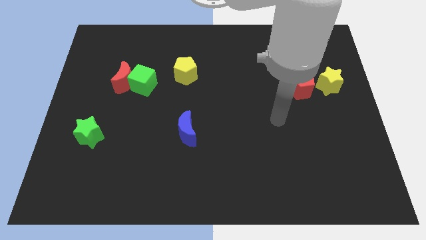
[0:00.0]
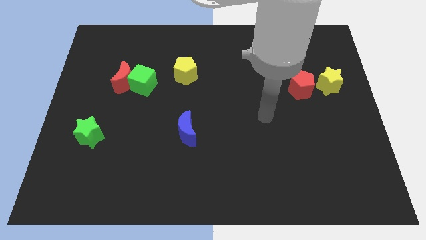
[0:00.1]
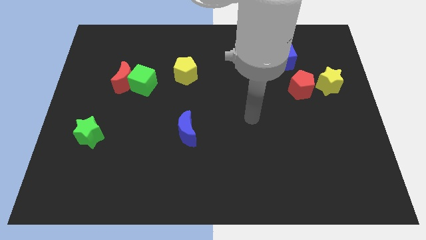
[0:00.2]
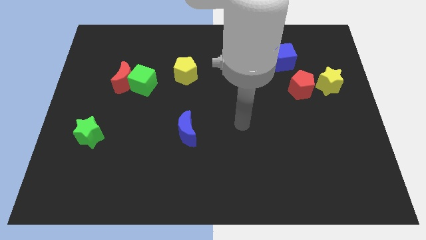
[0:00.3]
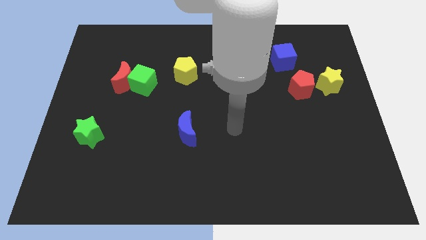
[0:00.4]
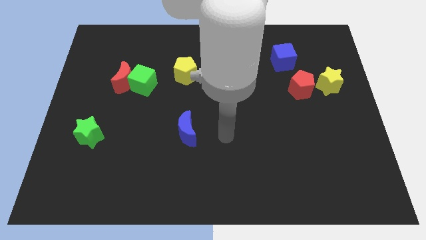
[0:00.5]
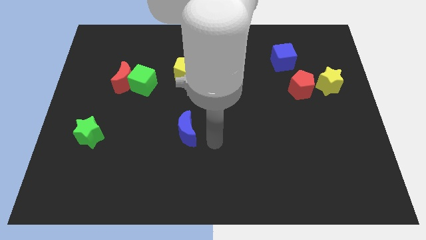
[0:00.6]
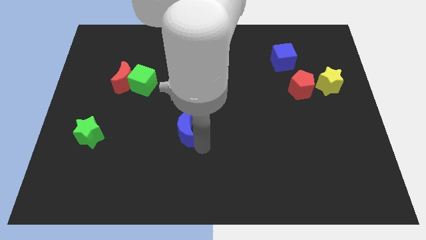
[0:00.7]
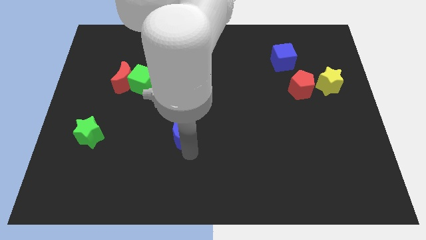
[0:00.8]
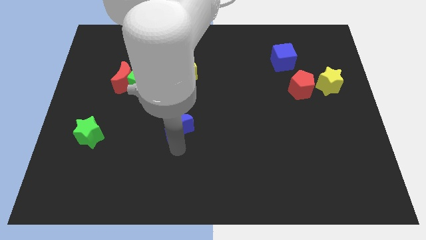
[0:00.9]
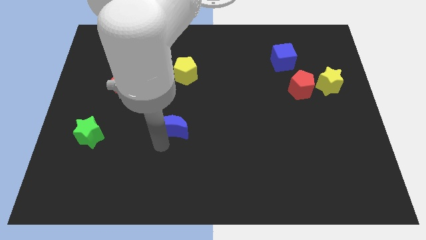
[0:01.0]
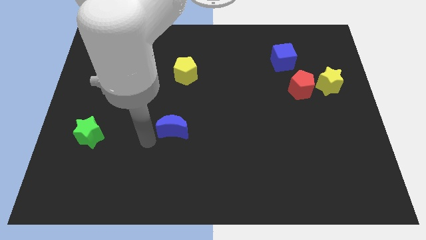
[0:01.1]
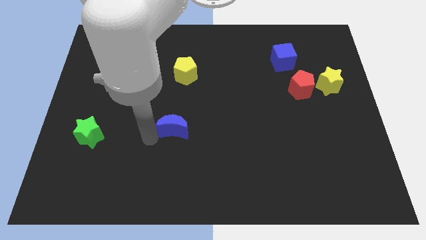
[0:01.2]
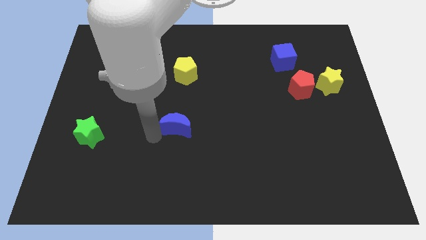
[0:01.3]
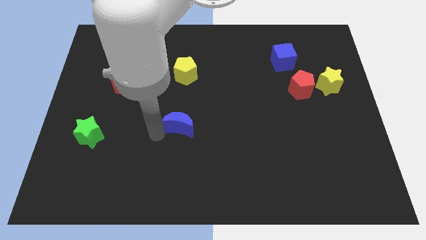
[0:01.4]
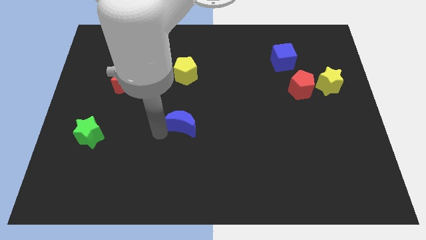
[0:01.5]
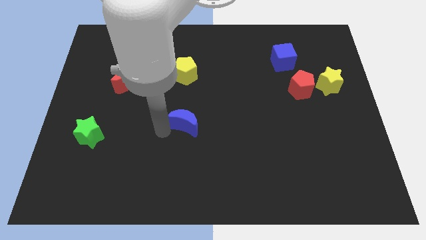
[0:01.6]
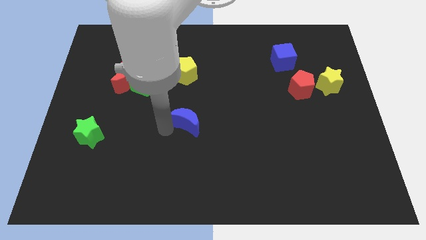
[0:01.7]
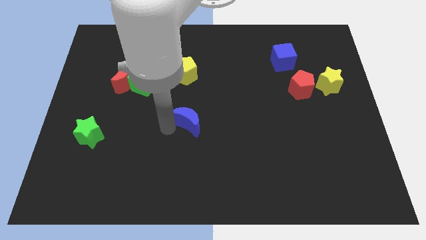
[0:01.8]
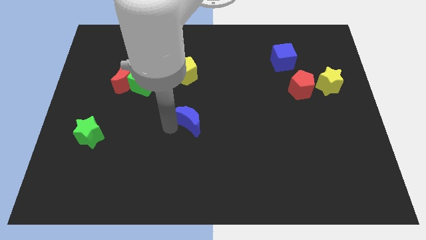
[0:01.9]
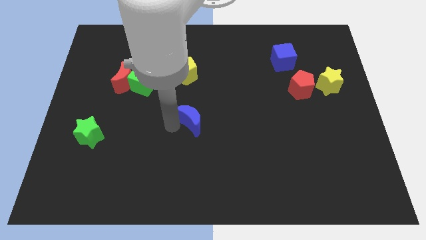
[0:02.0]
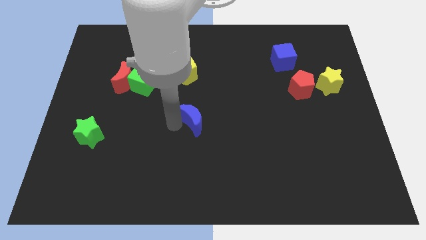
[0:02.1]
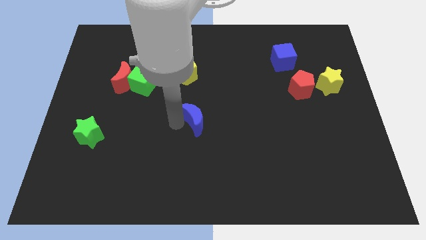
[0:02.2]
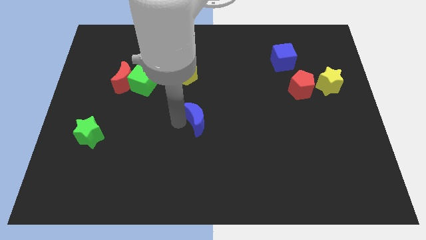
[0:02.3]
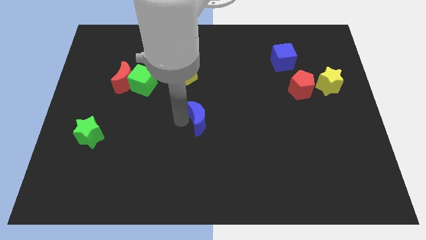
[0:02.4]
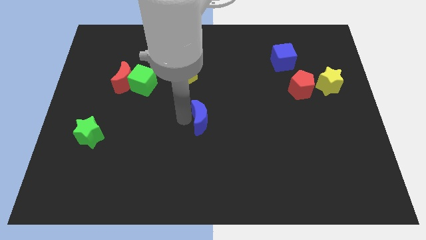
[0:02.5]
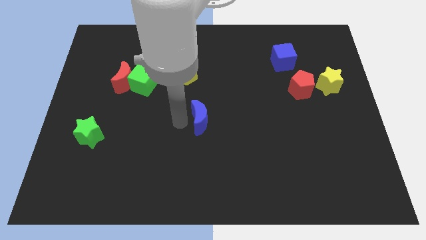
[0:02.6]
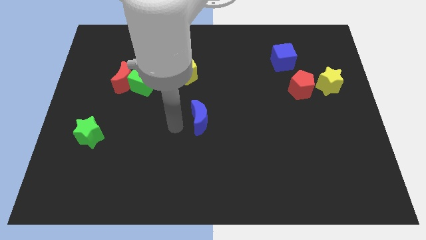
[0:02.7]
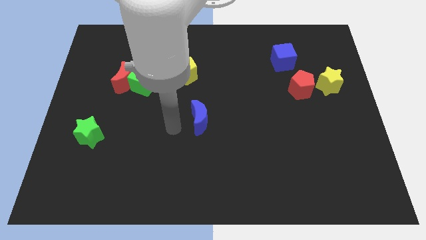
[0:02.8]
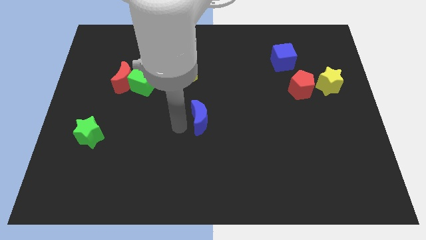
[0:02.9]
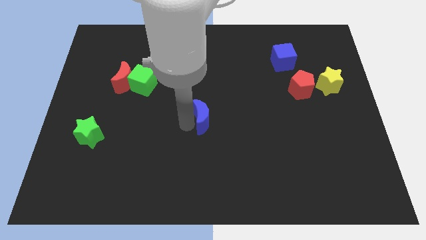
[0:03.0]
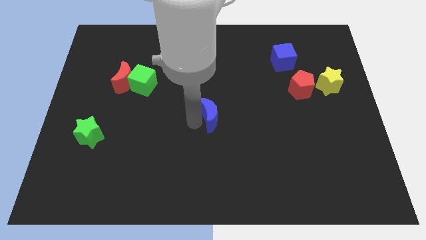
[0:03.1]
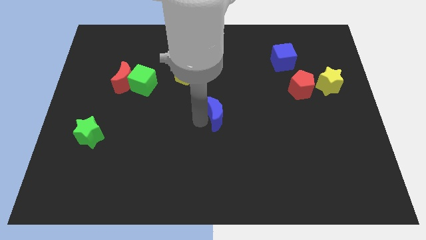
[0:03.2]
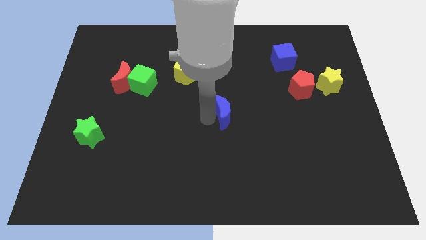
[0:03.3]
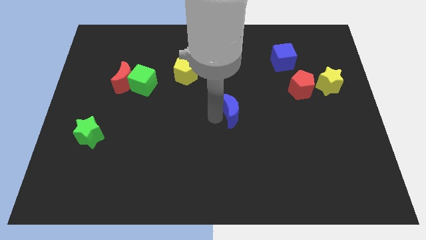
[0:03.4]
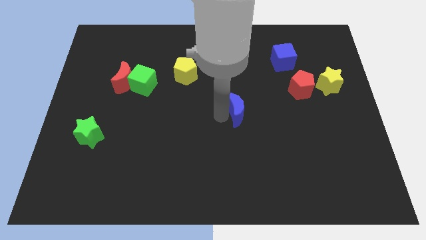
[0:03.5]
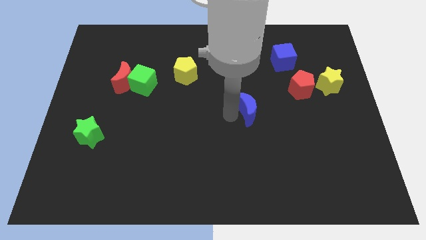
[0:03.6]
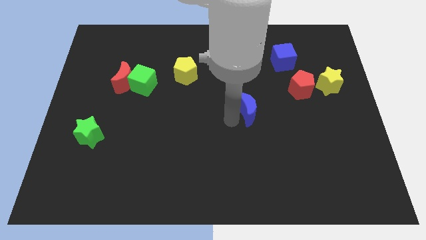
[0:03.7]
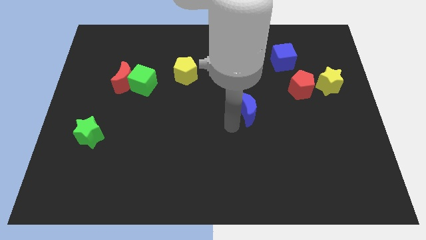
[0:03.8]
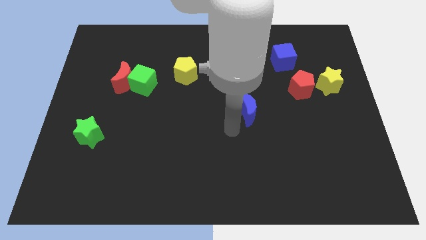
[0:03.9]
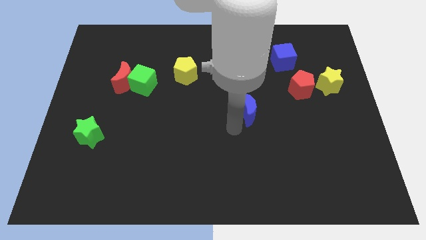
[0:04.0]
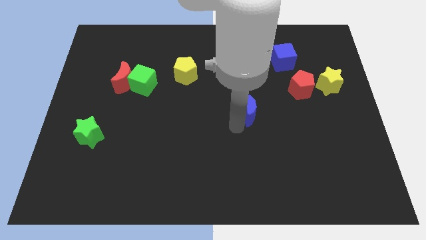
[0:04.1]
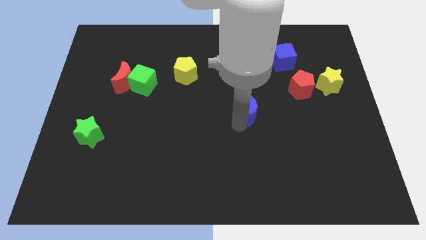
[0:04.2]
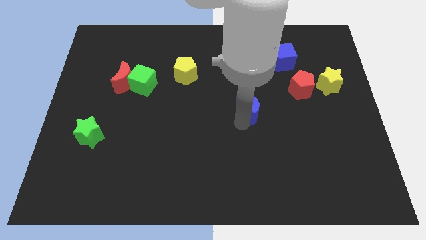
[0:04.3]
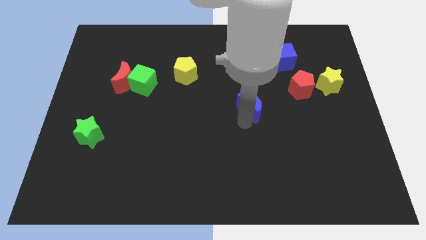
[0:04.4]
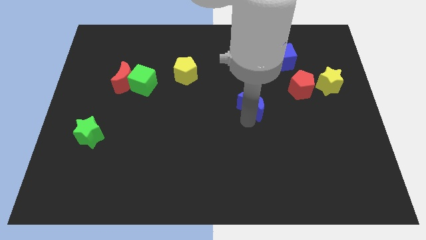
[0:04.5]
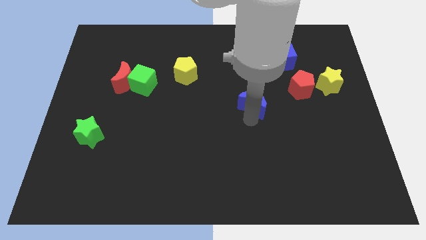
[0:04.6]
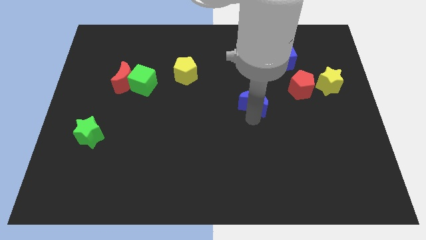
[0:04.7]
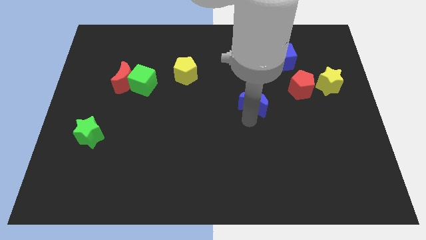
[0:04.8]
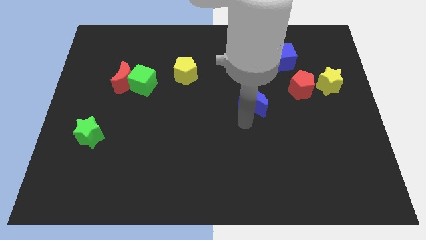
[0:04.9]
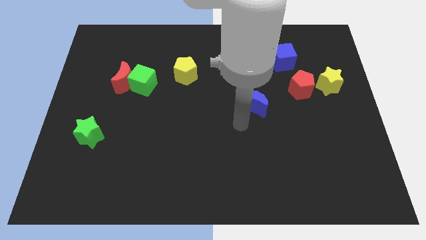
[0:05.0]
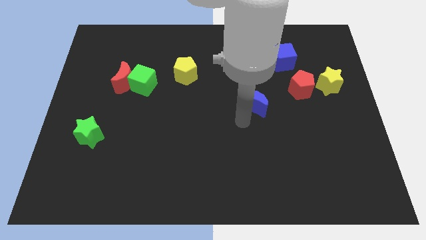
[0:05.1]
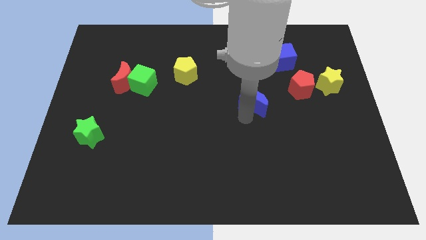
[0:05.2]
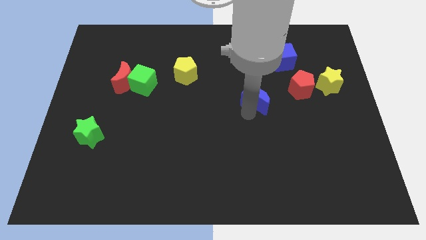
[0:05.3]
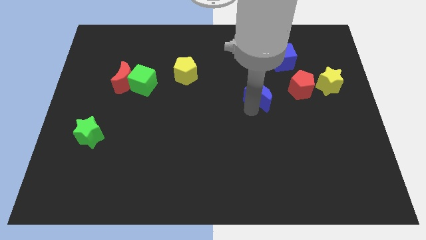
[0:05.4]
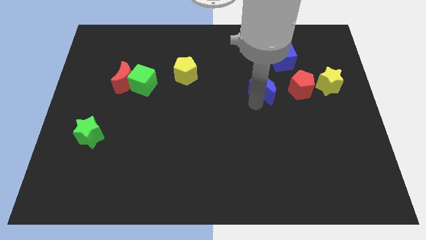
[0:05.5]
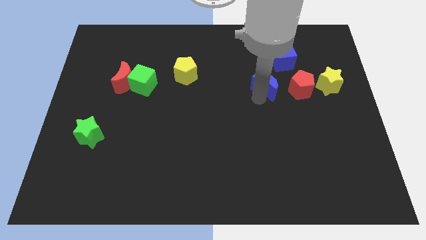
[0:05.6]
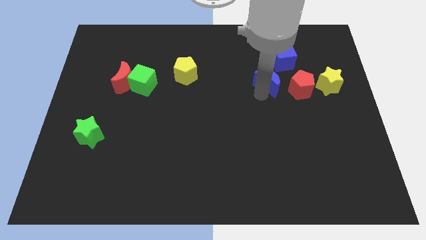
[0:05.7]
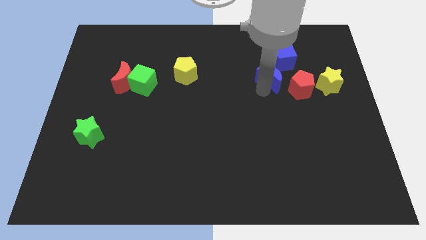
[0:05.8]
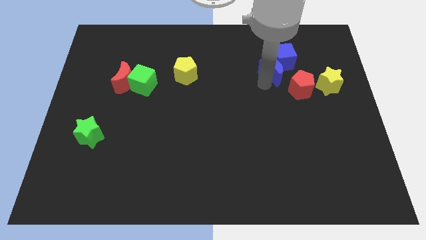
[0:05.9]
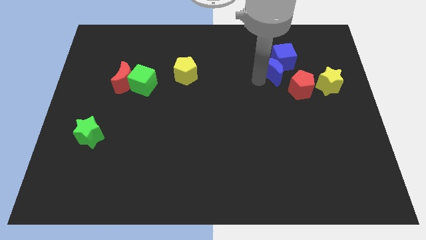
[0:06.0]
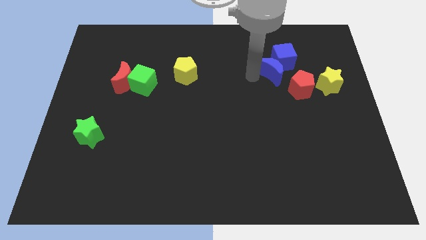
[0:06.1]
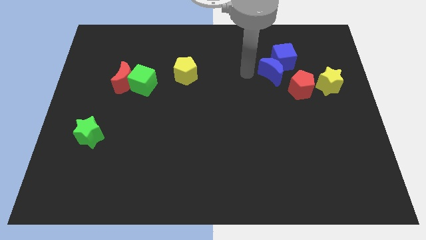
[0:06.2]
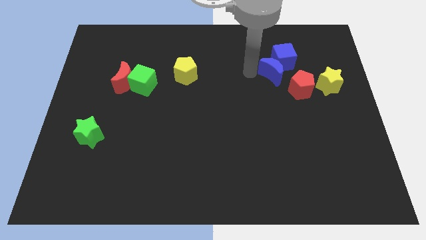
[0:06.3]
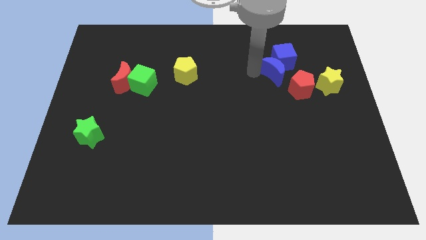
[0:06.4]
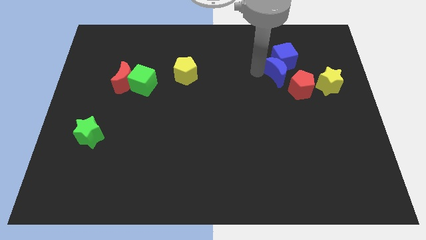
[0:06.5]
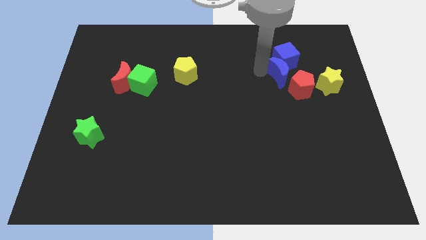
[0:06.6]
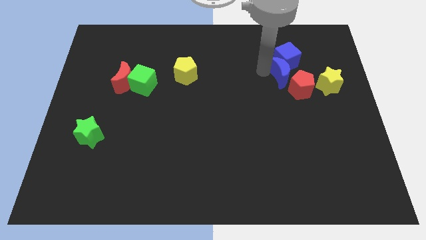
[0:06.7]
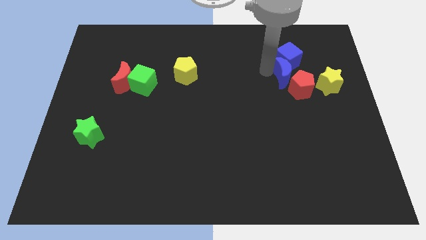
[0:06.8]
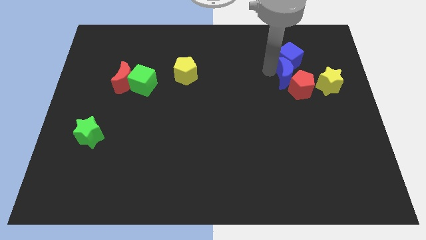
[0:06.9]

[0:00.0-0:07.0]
move the blue moon to the bottom right side of the blue cube
